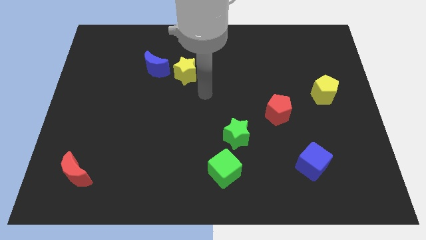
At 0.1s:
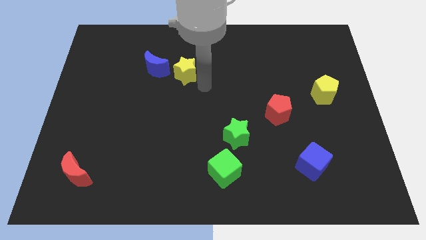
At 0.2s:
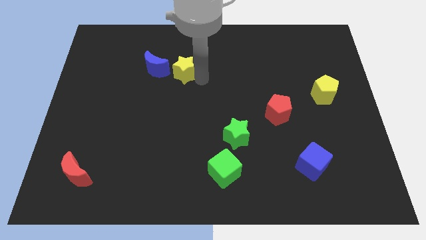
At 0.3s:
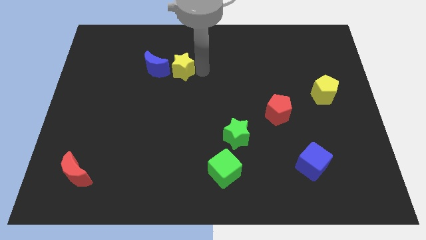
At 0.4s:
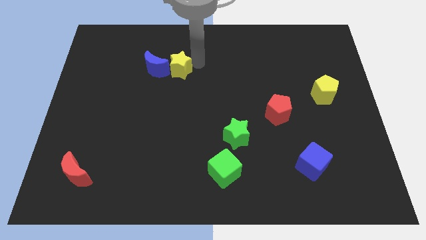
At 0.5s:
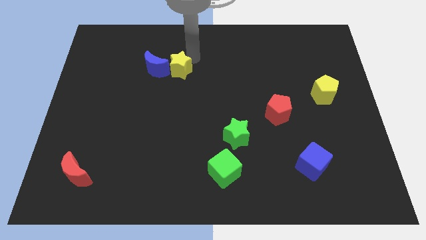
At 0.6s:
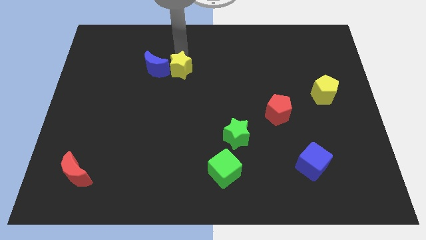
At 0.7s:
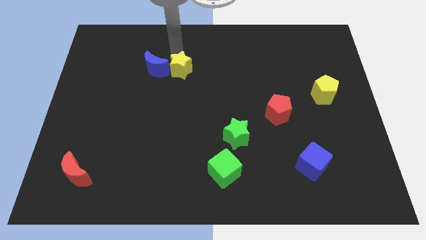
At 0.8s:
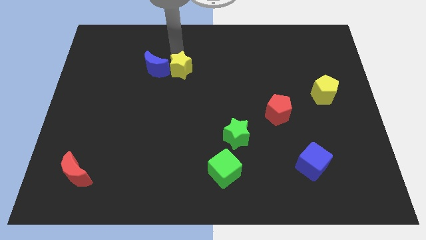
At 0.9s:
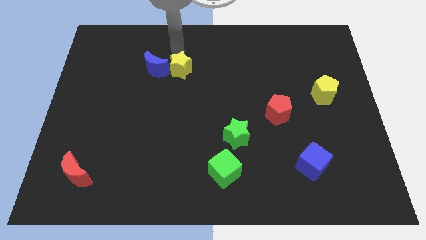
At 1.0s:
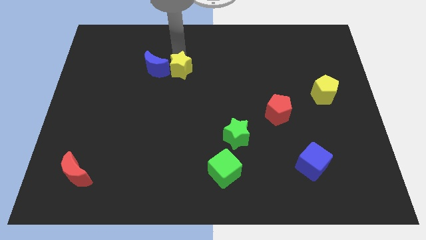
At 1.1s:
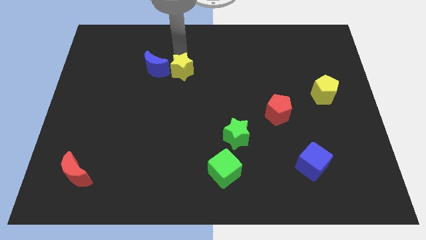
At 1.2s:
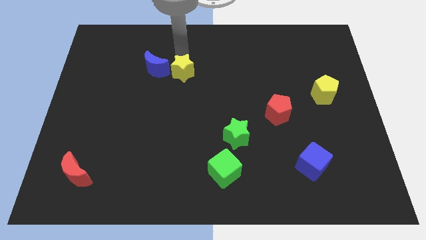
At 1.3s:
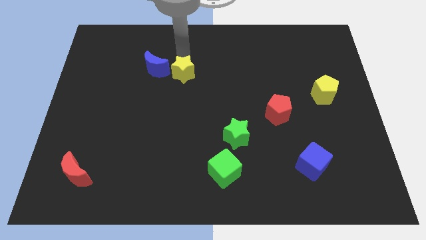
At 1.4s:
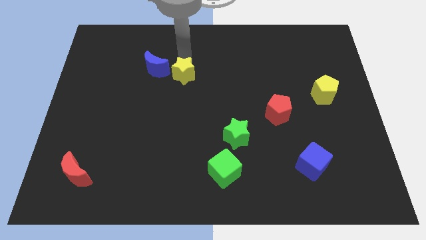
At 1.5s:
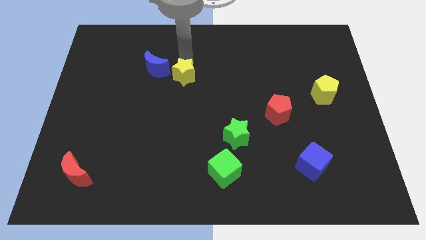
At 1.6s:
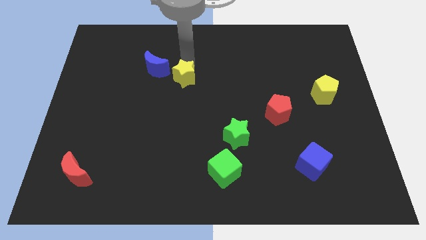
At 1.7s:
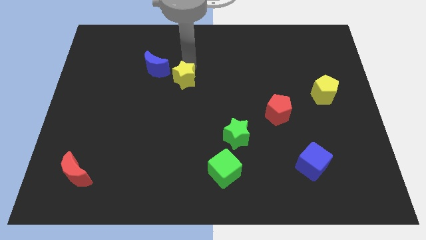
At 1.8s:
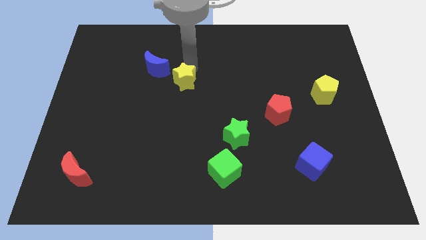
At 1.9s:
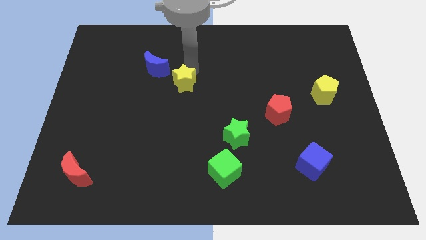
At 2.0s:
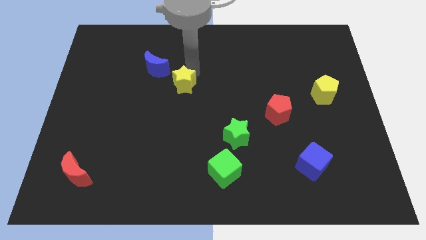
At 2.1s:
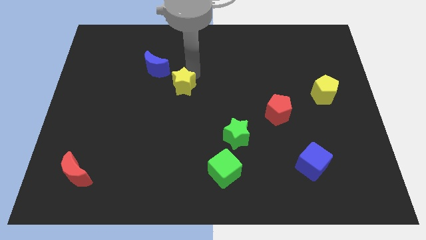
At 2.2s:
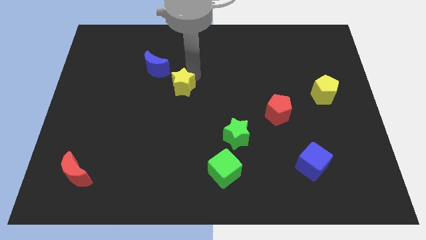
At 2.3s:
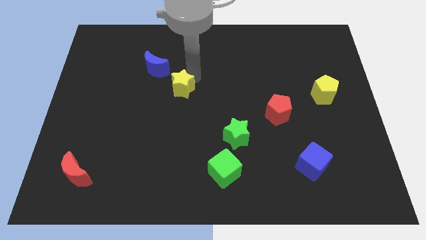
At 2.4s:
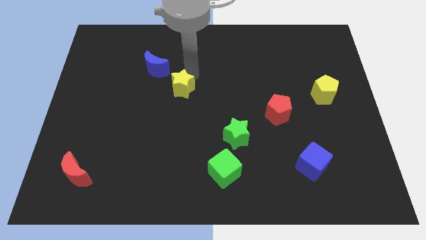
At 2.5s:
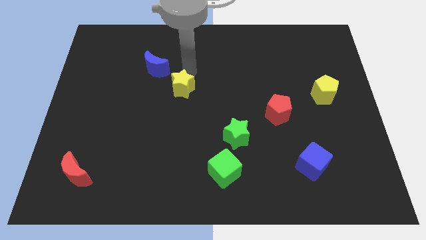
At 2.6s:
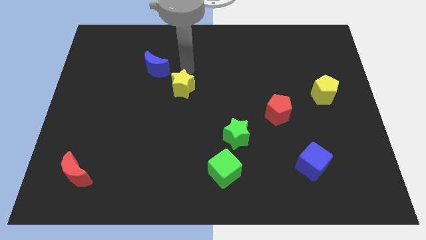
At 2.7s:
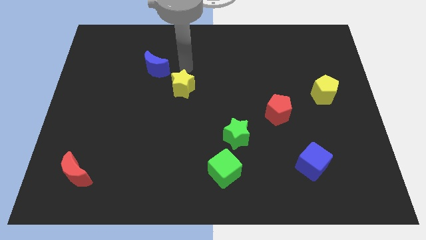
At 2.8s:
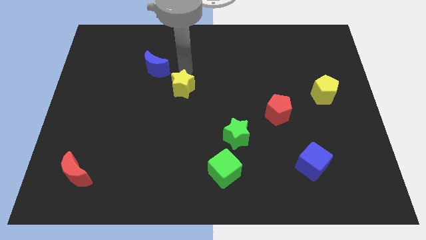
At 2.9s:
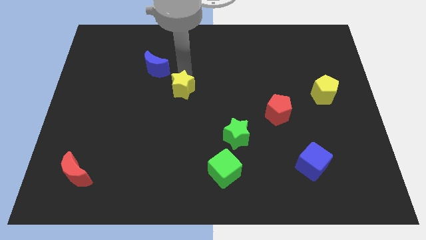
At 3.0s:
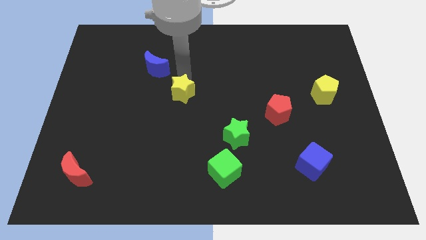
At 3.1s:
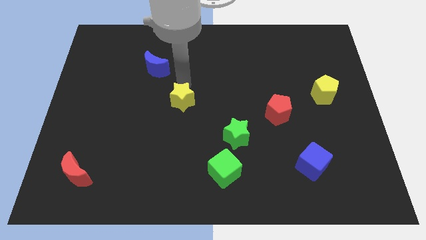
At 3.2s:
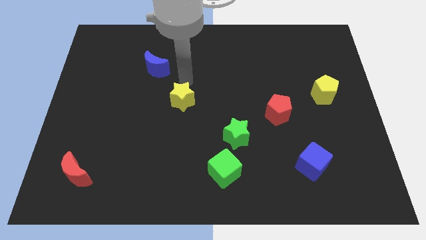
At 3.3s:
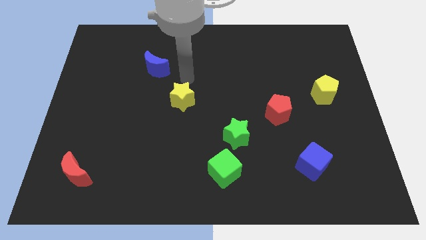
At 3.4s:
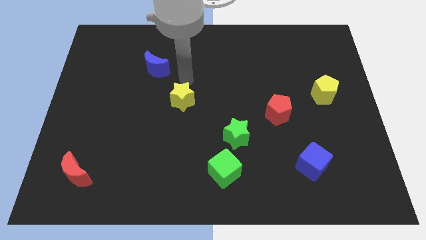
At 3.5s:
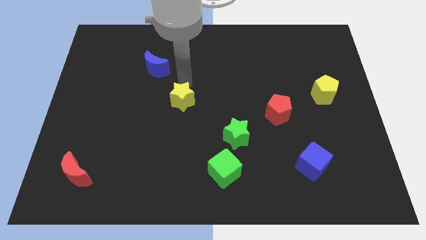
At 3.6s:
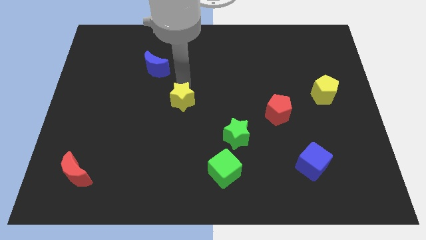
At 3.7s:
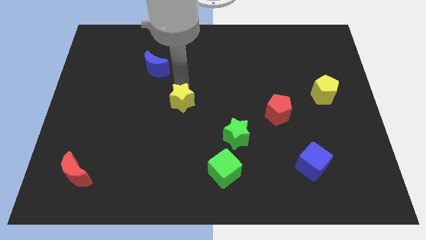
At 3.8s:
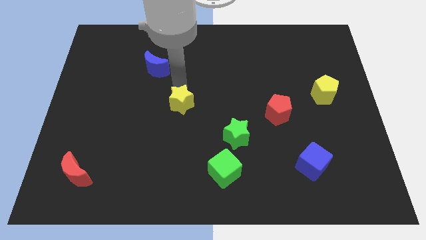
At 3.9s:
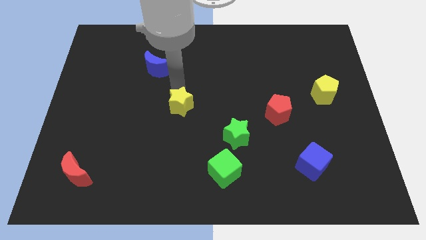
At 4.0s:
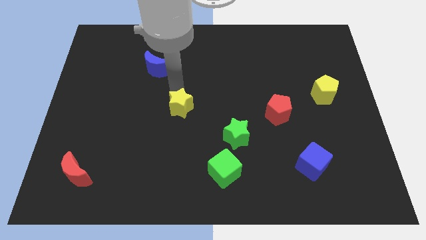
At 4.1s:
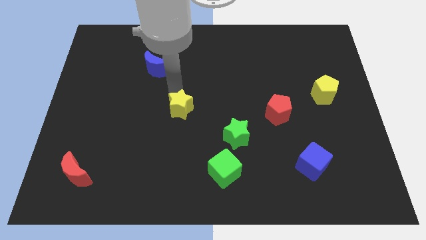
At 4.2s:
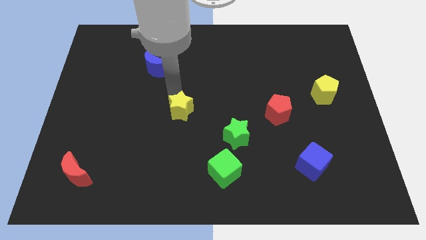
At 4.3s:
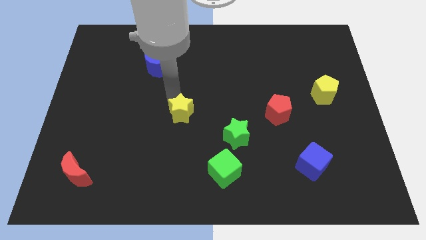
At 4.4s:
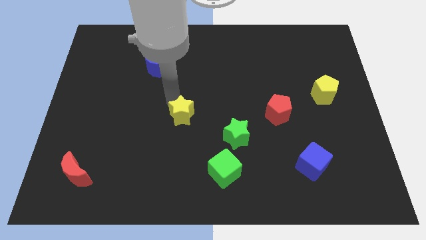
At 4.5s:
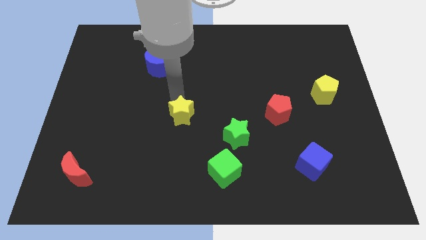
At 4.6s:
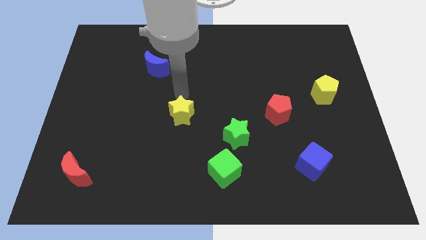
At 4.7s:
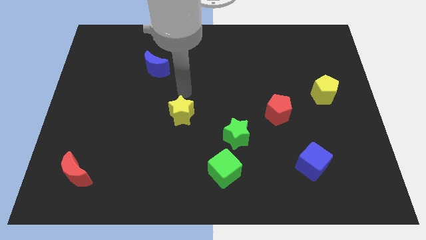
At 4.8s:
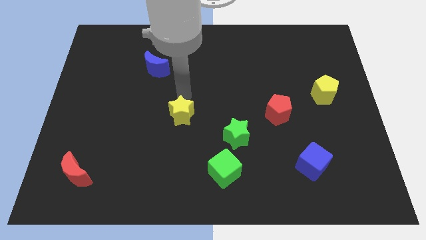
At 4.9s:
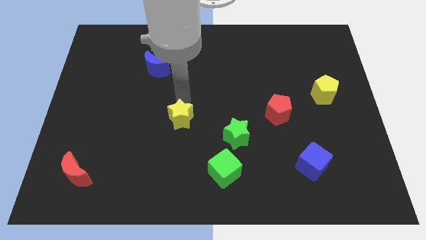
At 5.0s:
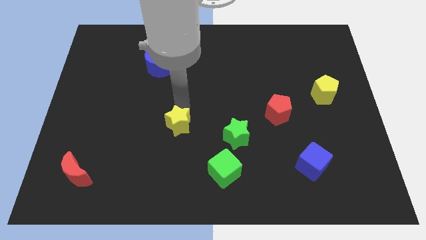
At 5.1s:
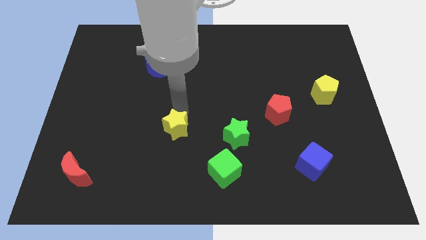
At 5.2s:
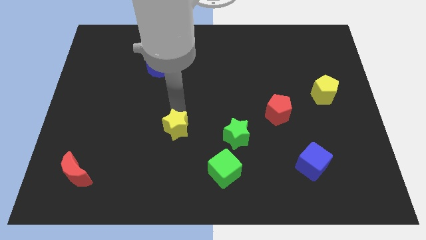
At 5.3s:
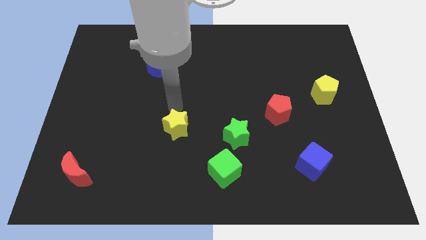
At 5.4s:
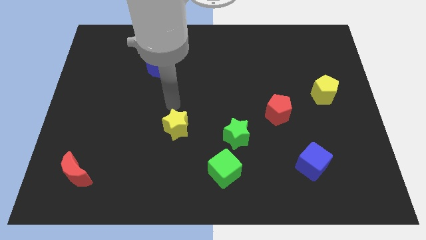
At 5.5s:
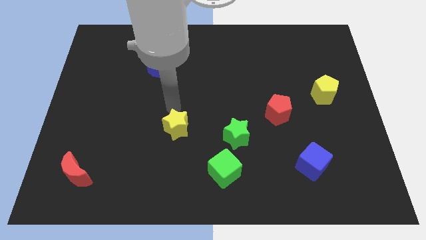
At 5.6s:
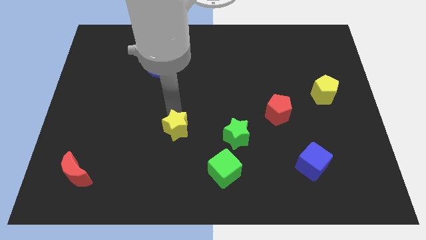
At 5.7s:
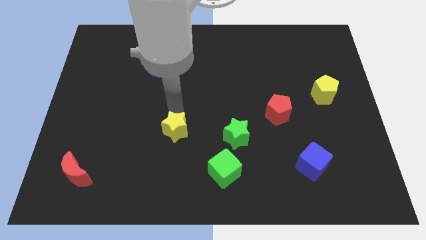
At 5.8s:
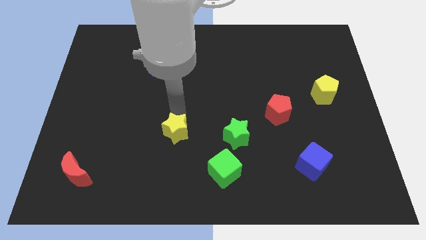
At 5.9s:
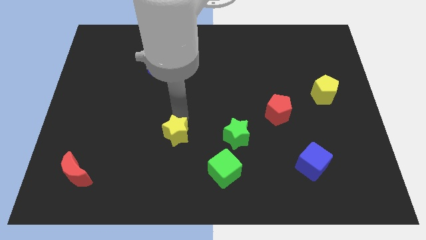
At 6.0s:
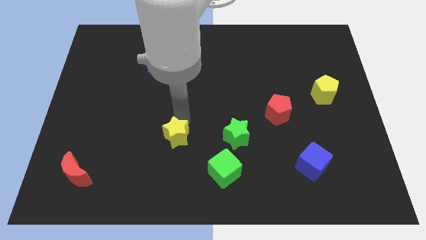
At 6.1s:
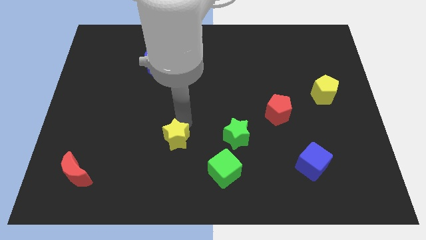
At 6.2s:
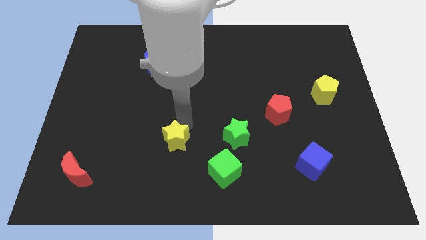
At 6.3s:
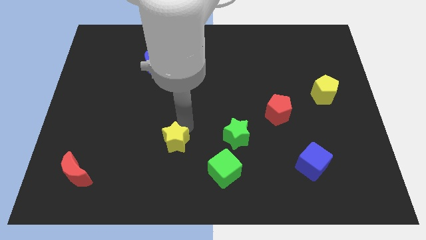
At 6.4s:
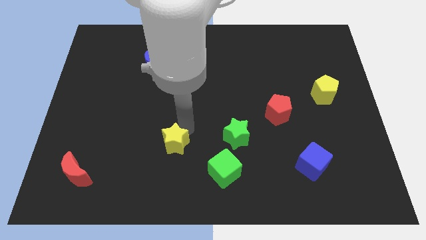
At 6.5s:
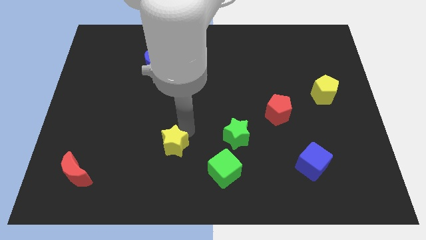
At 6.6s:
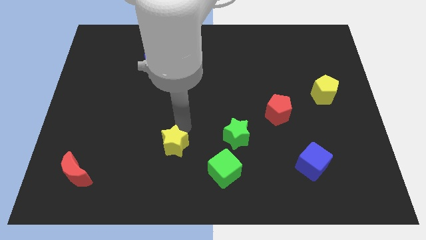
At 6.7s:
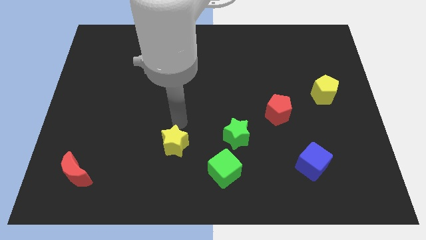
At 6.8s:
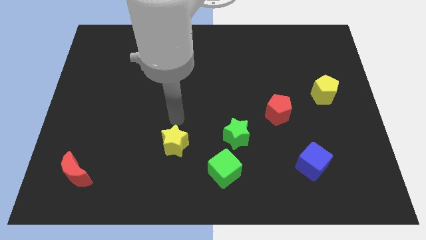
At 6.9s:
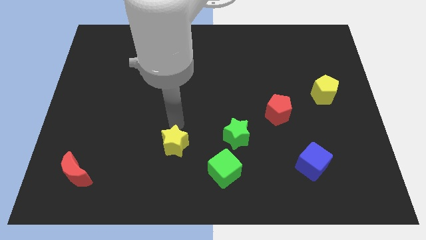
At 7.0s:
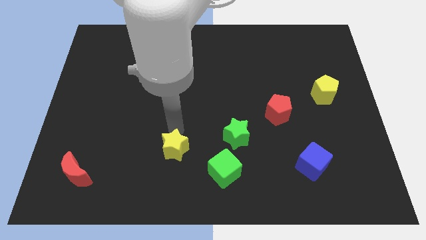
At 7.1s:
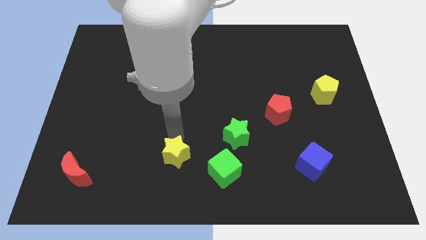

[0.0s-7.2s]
move the yellow star to the left side of the green cube
